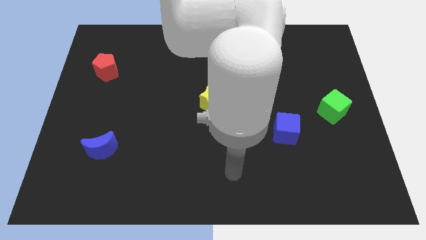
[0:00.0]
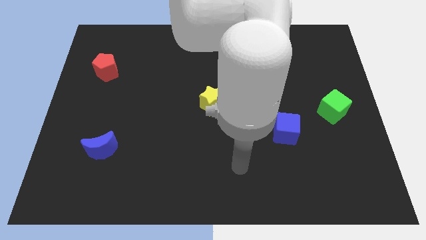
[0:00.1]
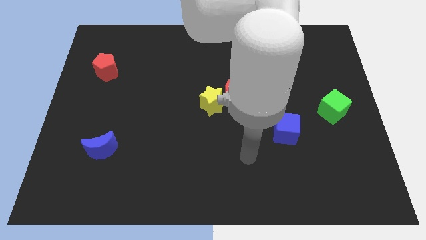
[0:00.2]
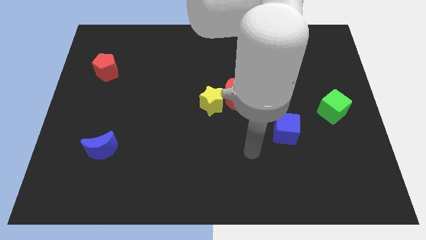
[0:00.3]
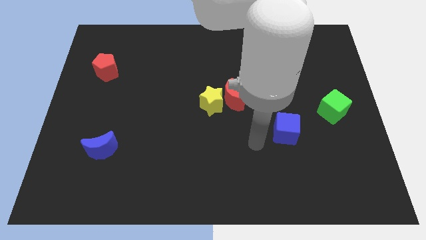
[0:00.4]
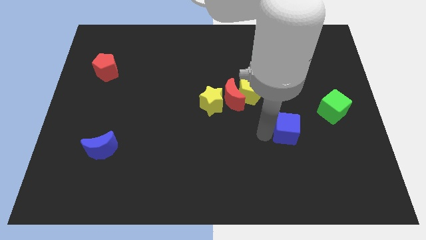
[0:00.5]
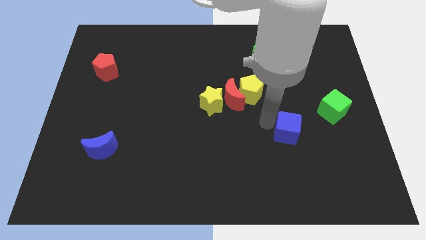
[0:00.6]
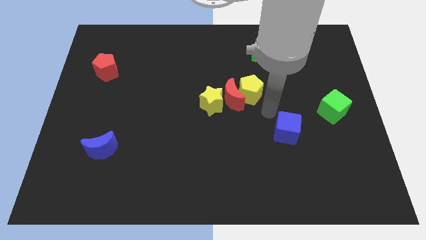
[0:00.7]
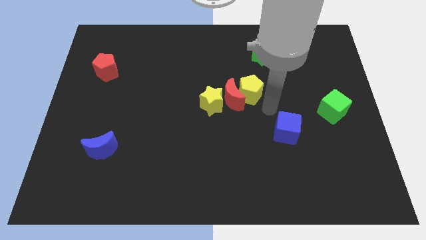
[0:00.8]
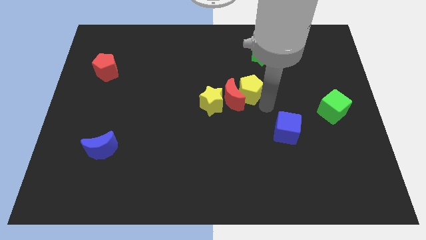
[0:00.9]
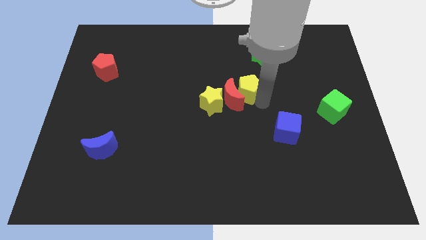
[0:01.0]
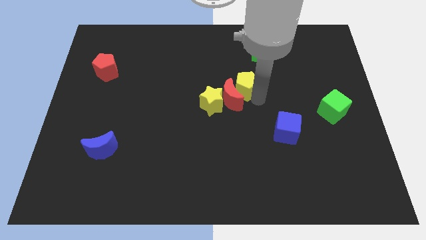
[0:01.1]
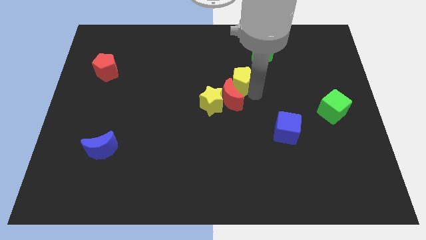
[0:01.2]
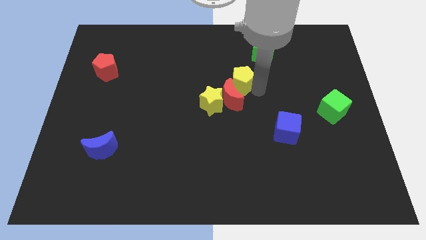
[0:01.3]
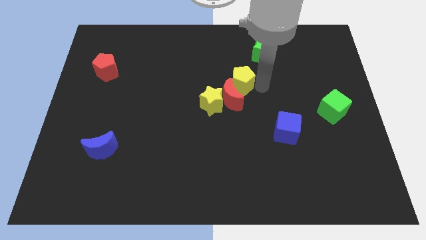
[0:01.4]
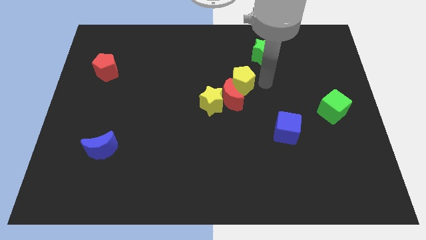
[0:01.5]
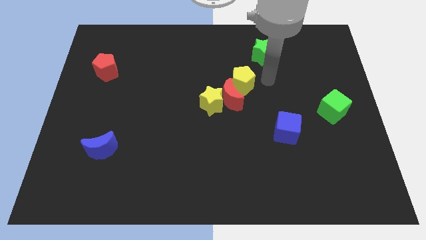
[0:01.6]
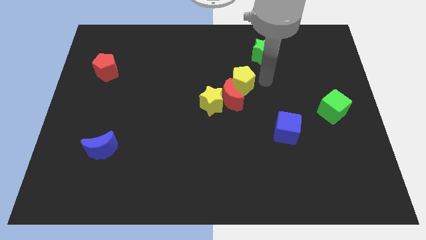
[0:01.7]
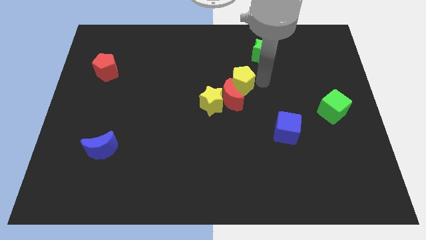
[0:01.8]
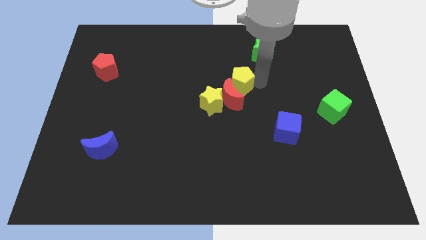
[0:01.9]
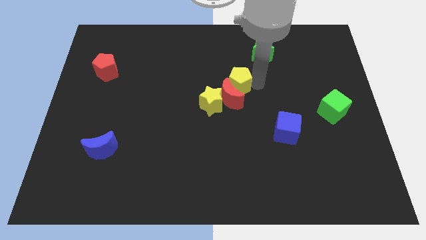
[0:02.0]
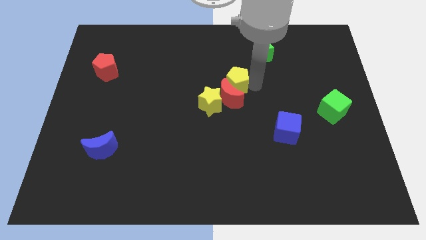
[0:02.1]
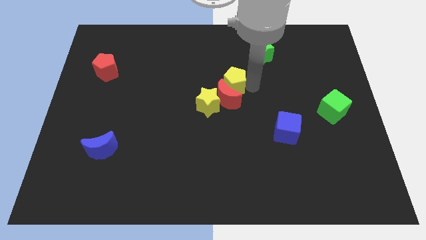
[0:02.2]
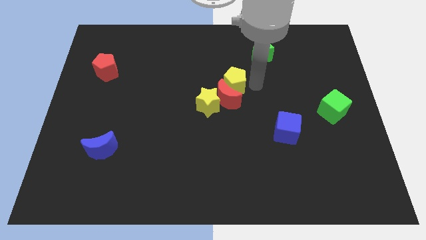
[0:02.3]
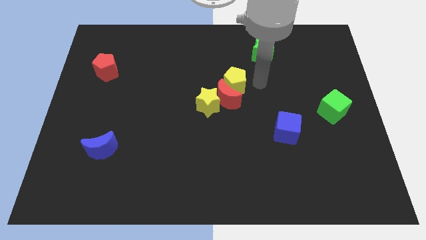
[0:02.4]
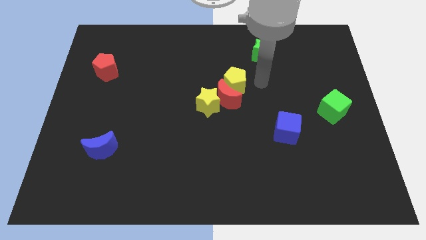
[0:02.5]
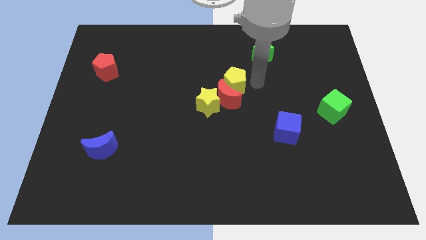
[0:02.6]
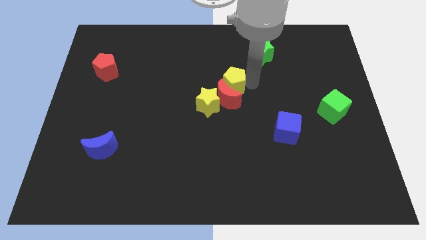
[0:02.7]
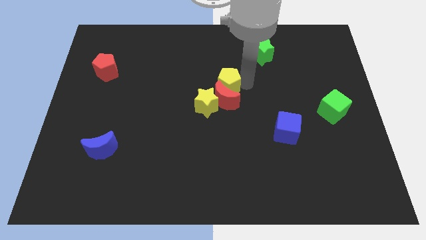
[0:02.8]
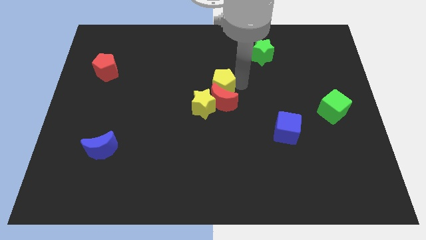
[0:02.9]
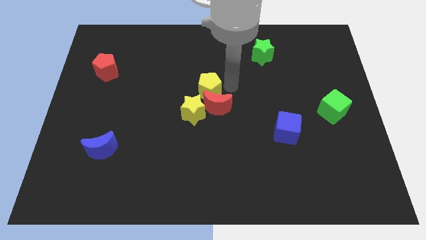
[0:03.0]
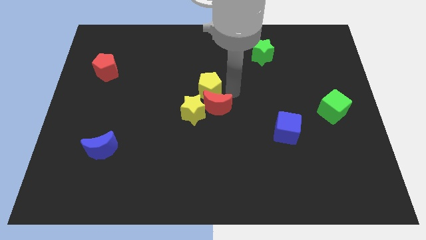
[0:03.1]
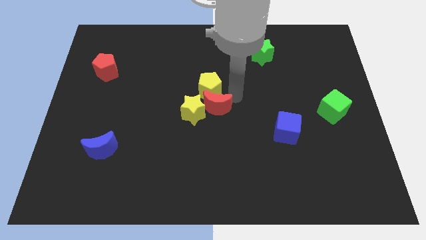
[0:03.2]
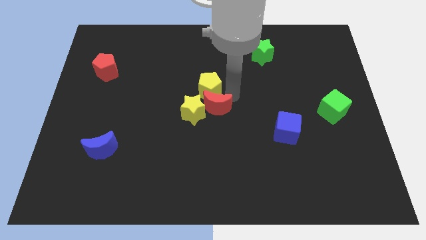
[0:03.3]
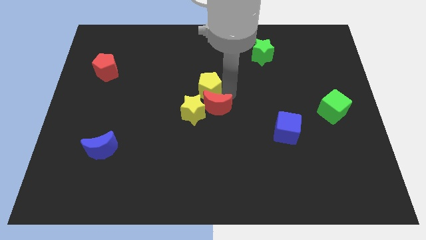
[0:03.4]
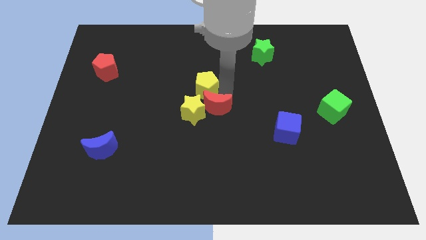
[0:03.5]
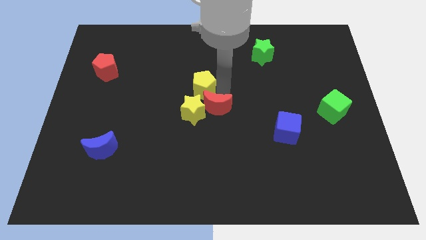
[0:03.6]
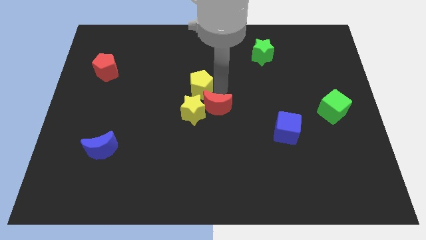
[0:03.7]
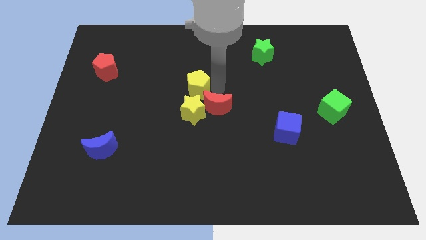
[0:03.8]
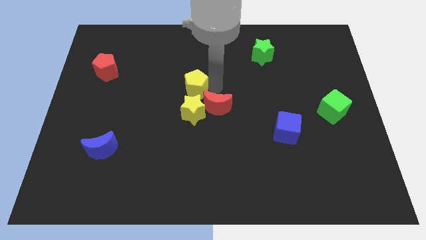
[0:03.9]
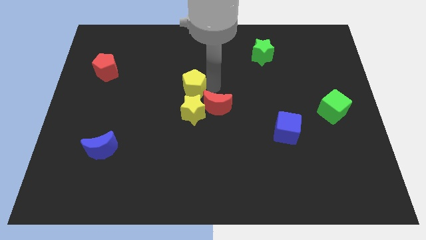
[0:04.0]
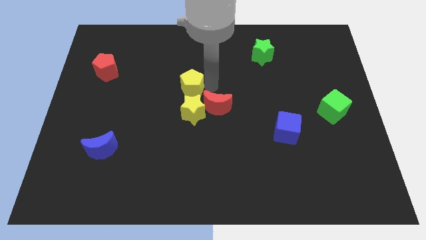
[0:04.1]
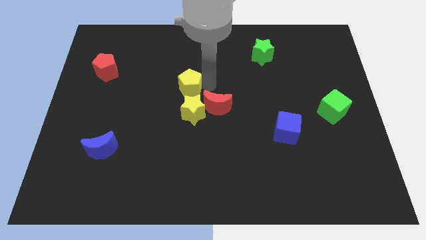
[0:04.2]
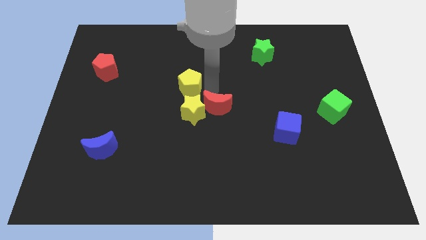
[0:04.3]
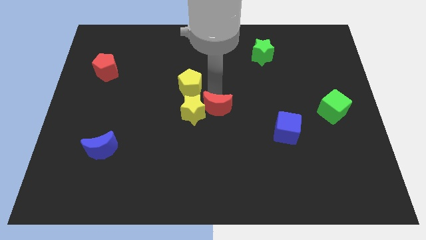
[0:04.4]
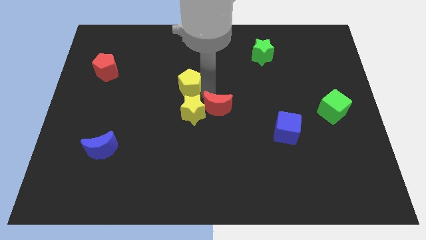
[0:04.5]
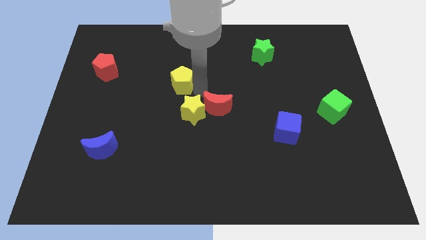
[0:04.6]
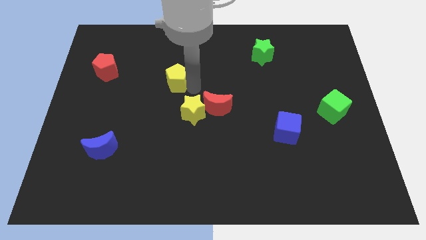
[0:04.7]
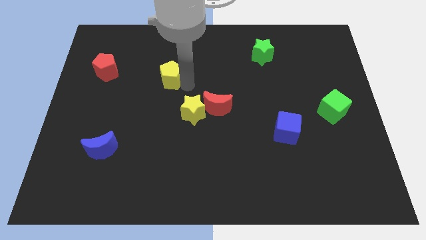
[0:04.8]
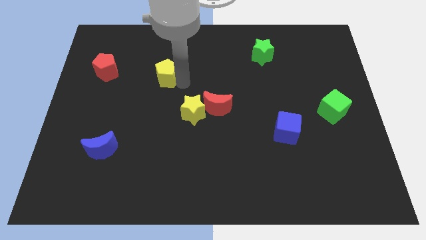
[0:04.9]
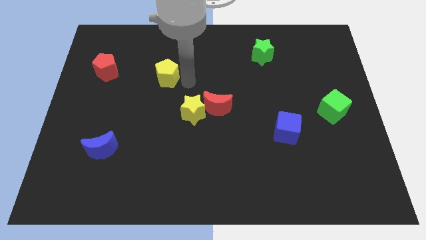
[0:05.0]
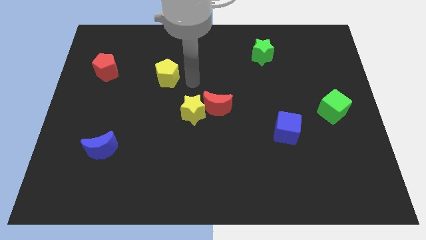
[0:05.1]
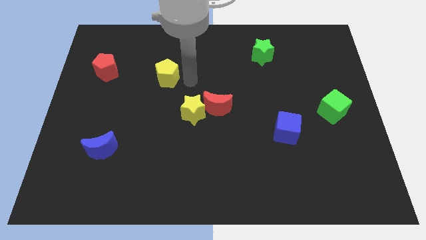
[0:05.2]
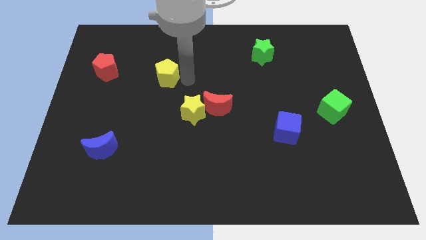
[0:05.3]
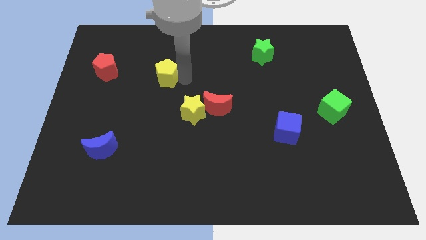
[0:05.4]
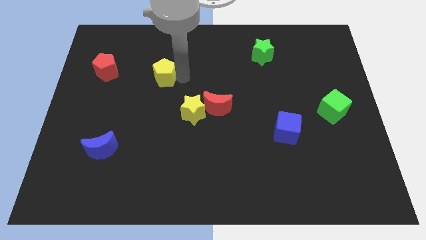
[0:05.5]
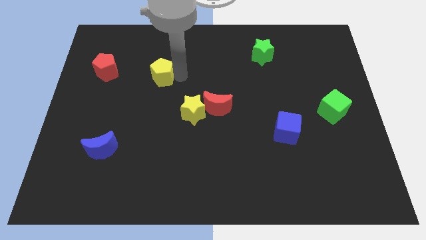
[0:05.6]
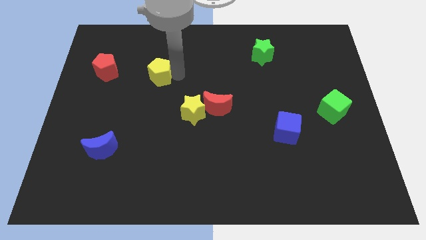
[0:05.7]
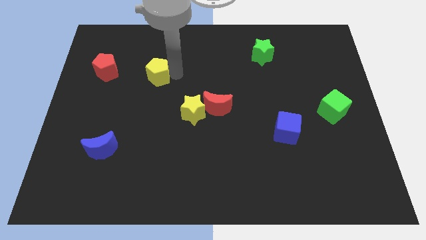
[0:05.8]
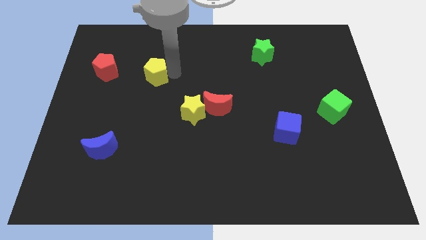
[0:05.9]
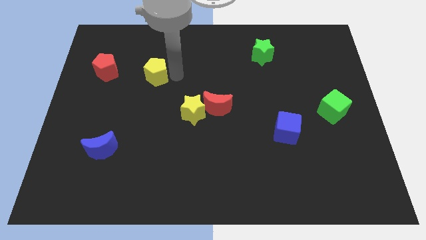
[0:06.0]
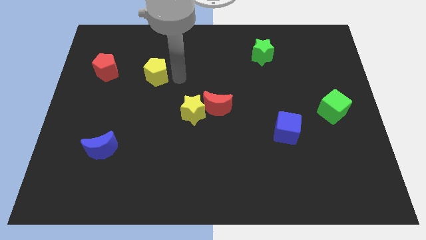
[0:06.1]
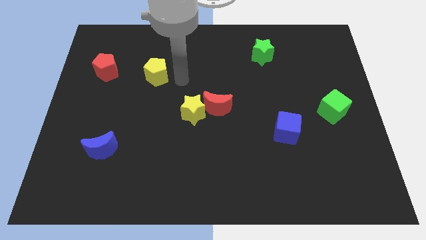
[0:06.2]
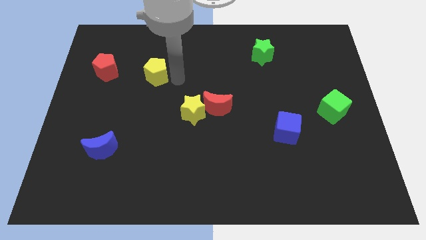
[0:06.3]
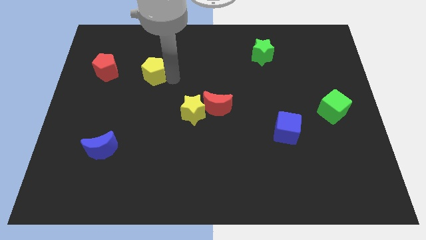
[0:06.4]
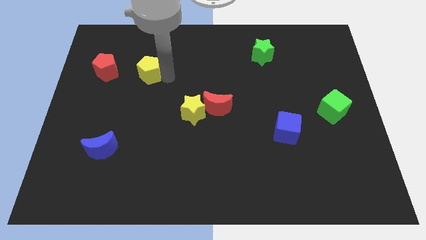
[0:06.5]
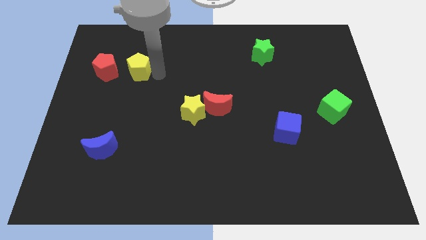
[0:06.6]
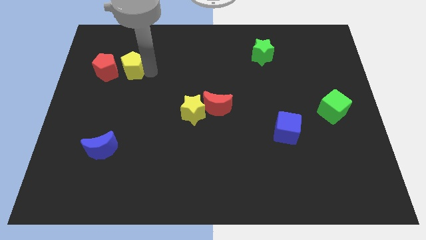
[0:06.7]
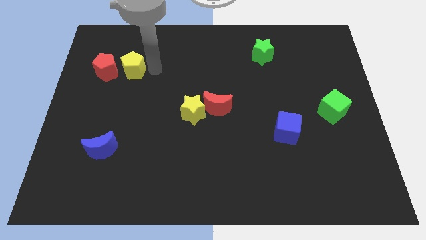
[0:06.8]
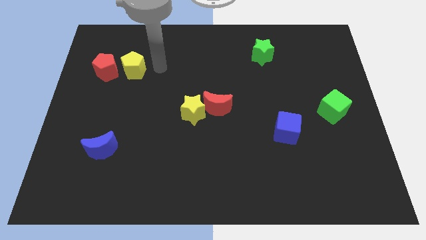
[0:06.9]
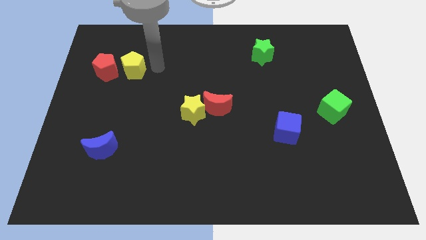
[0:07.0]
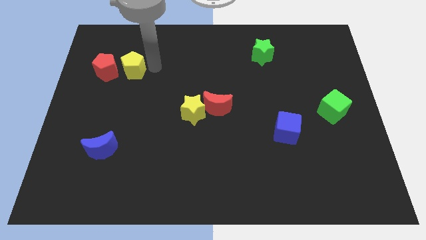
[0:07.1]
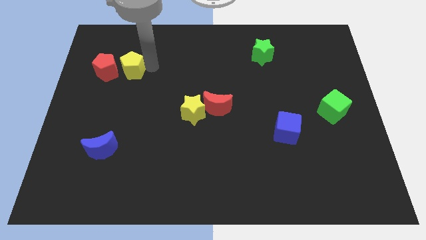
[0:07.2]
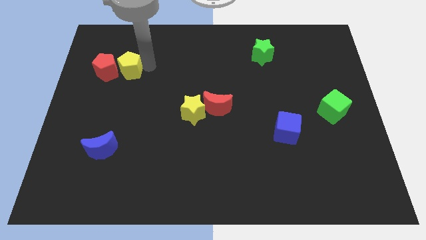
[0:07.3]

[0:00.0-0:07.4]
move the yellow pentagon to the red pentagon
